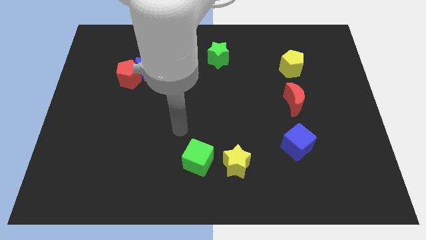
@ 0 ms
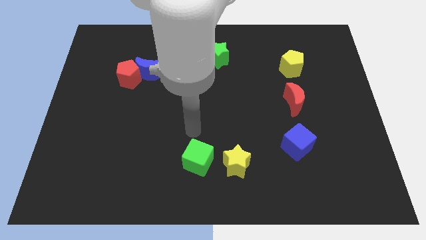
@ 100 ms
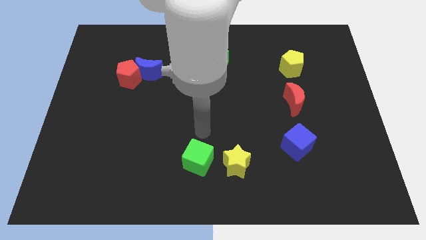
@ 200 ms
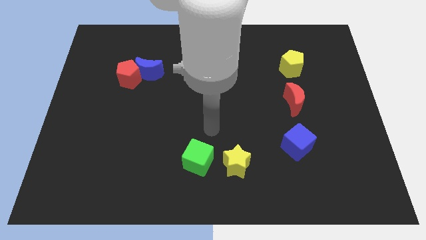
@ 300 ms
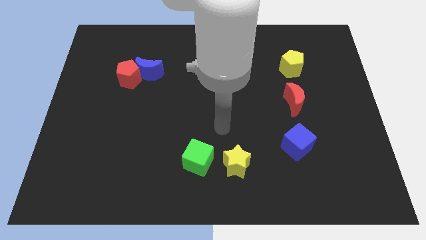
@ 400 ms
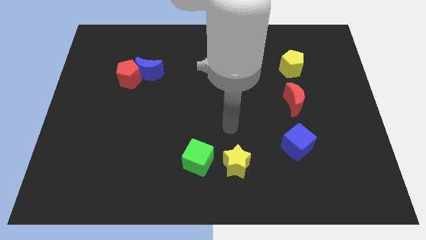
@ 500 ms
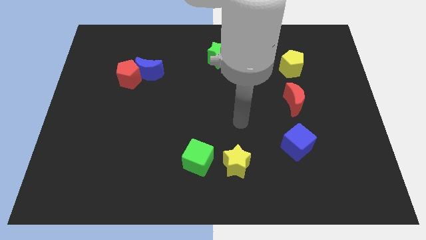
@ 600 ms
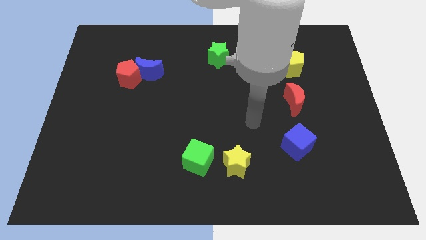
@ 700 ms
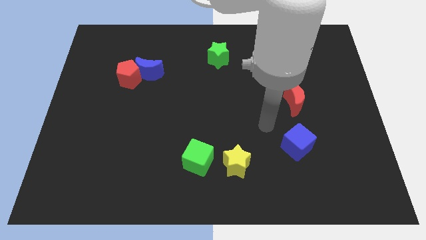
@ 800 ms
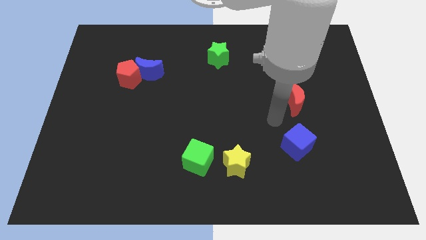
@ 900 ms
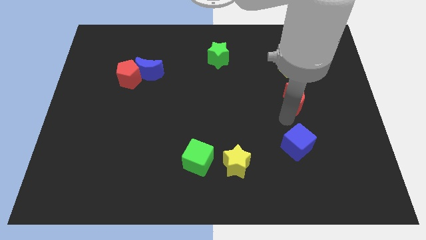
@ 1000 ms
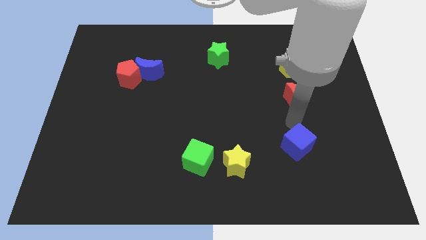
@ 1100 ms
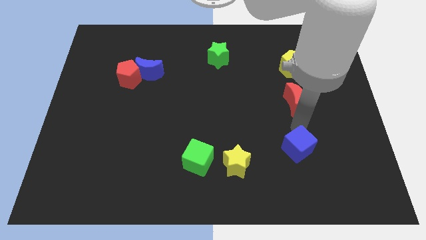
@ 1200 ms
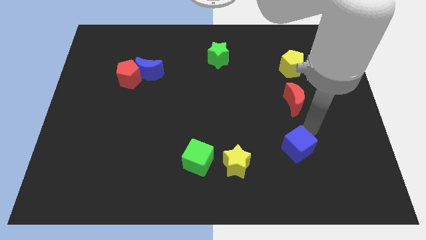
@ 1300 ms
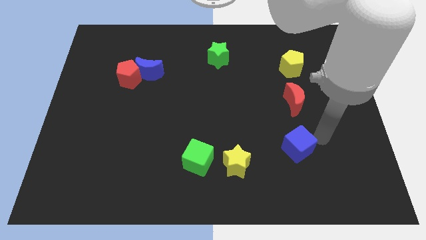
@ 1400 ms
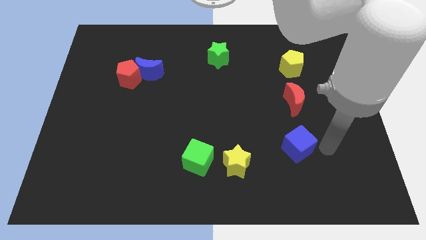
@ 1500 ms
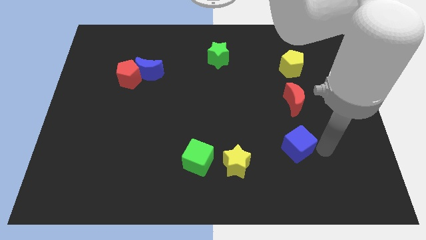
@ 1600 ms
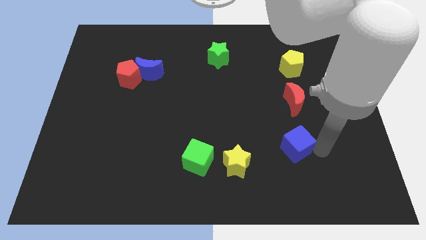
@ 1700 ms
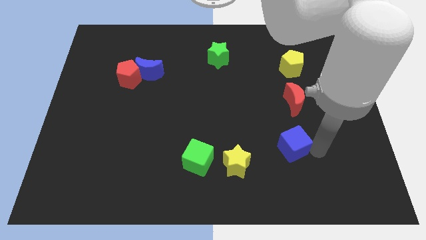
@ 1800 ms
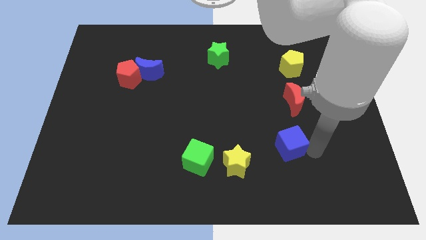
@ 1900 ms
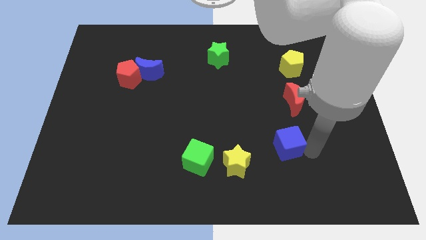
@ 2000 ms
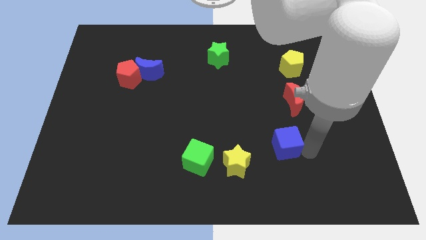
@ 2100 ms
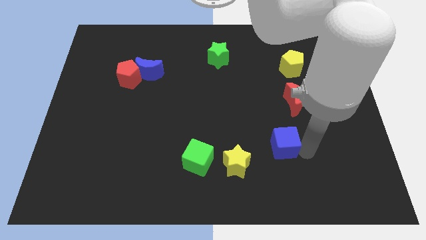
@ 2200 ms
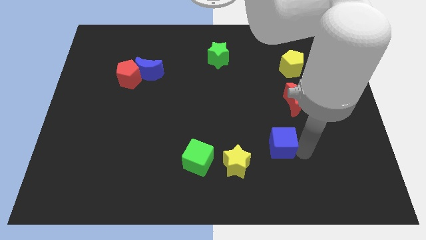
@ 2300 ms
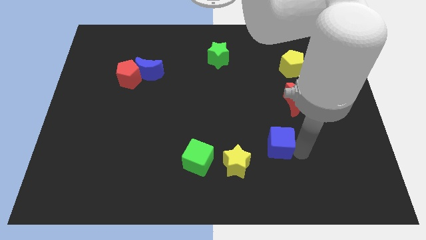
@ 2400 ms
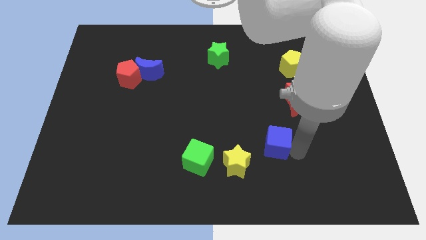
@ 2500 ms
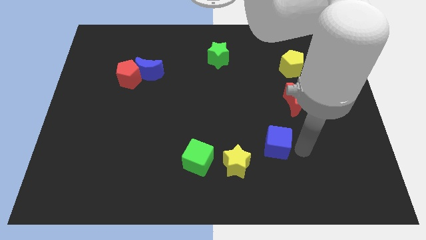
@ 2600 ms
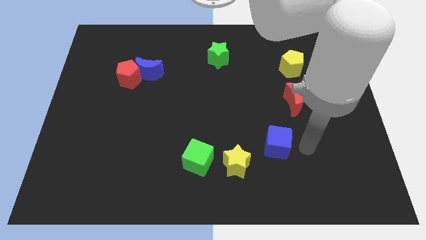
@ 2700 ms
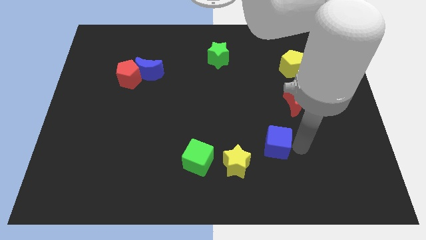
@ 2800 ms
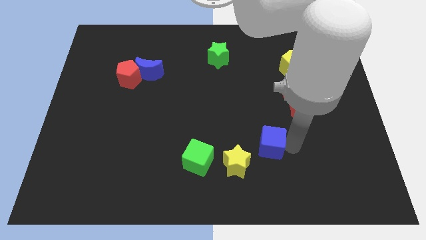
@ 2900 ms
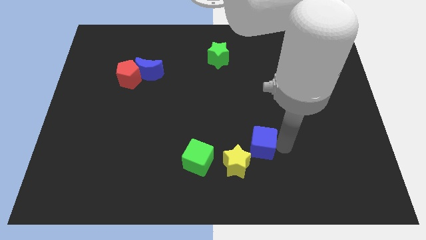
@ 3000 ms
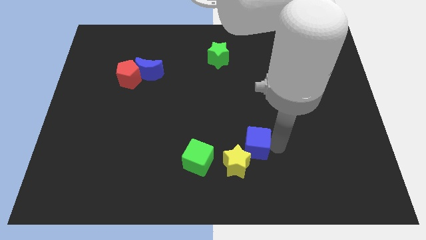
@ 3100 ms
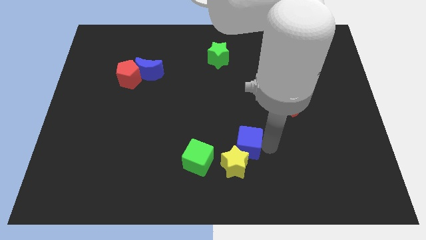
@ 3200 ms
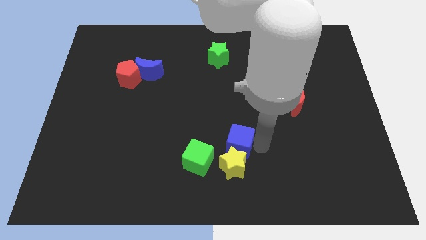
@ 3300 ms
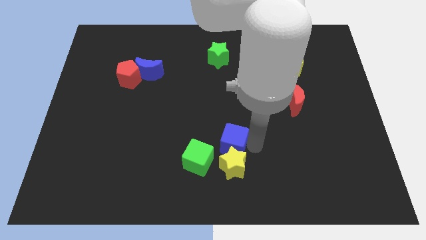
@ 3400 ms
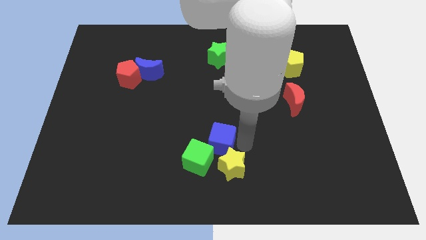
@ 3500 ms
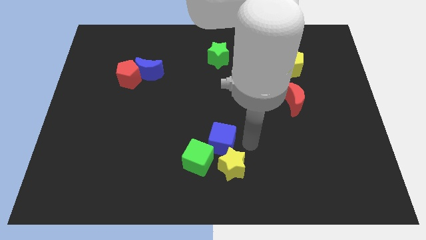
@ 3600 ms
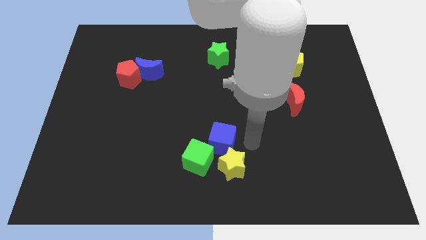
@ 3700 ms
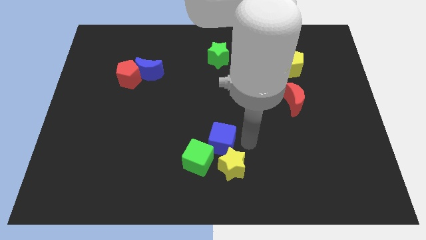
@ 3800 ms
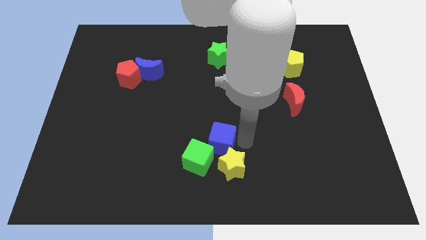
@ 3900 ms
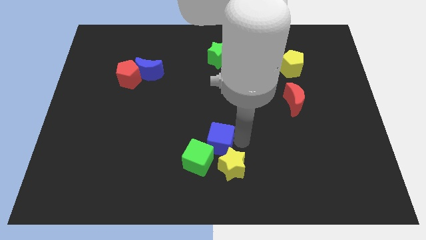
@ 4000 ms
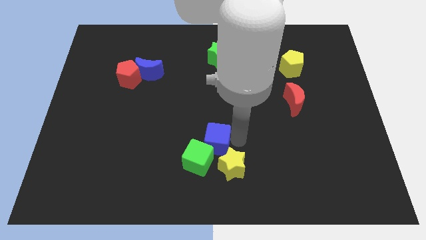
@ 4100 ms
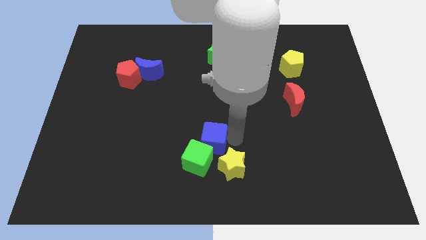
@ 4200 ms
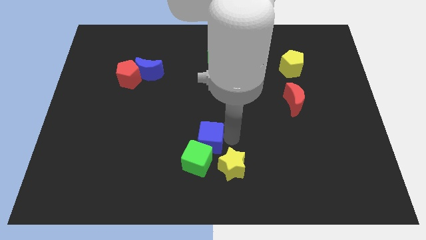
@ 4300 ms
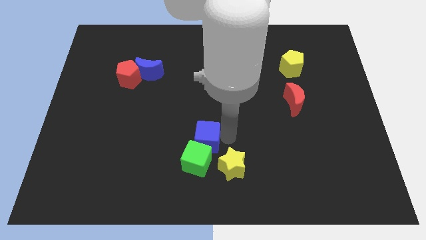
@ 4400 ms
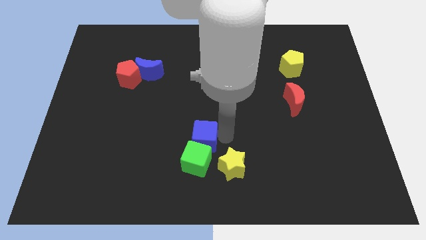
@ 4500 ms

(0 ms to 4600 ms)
move the blue cube left

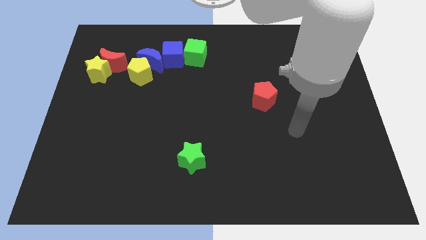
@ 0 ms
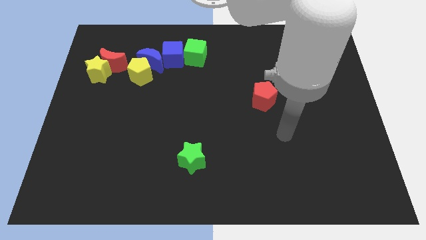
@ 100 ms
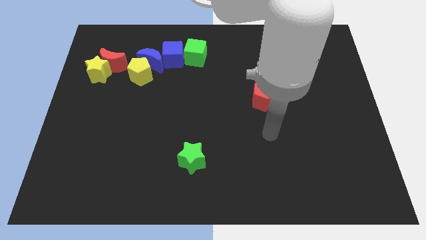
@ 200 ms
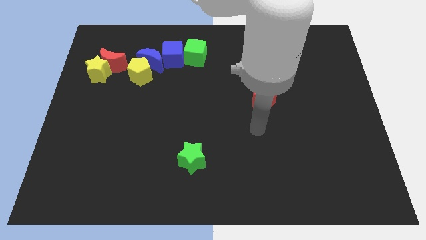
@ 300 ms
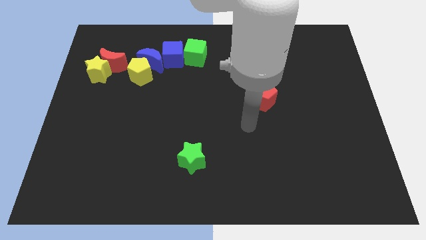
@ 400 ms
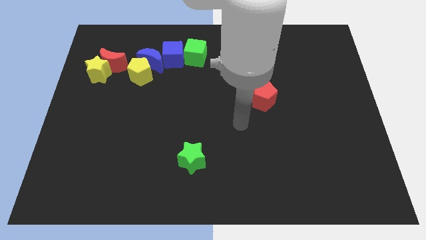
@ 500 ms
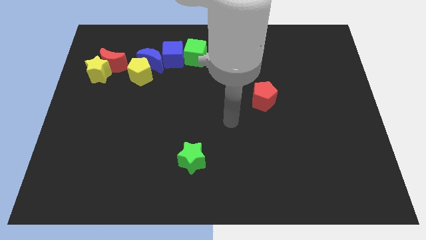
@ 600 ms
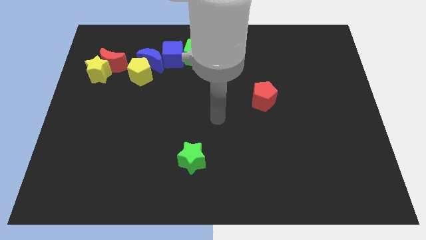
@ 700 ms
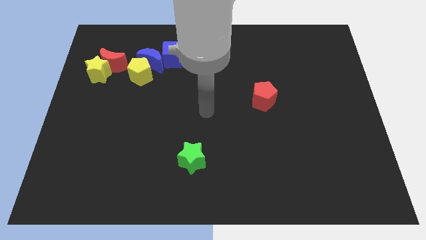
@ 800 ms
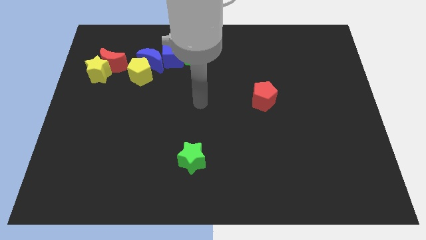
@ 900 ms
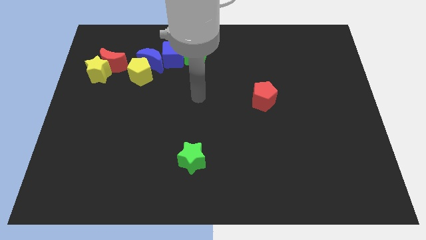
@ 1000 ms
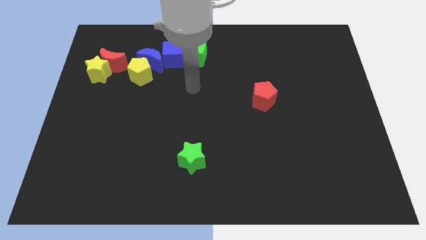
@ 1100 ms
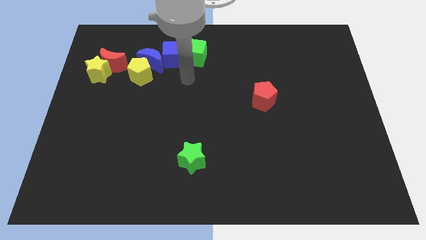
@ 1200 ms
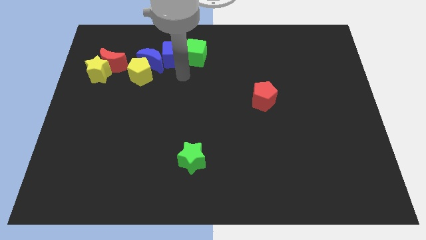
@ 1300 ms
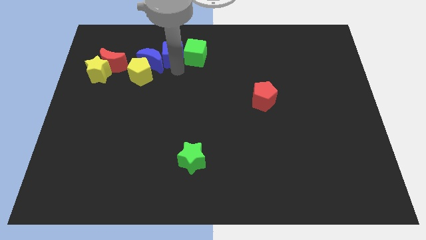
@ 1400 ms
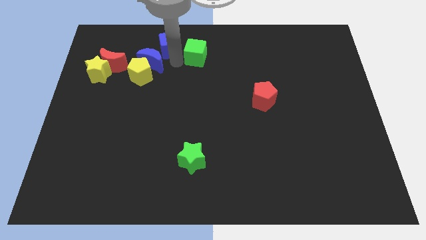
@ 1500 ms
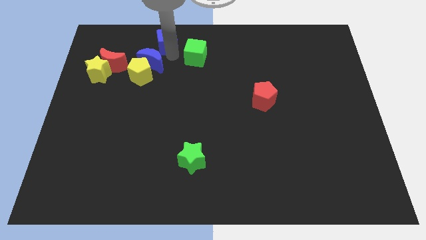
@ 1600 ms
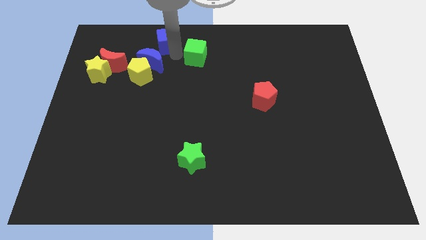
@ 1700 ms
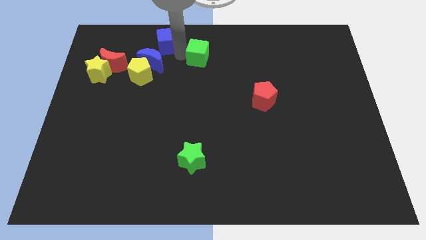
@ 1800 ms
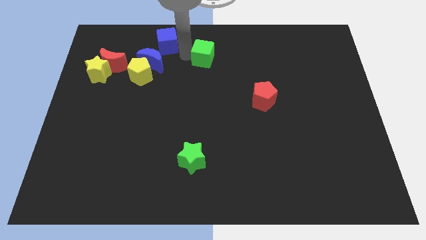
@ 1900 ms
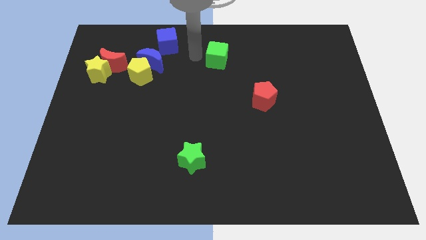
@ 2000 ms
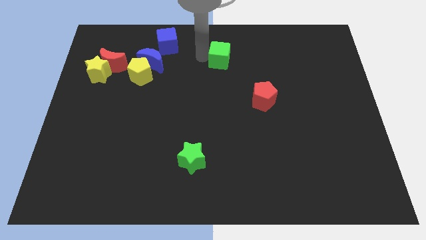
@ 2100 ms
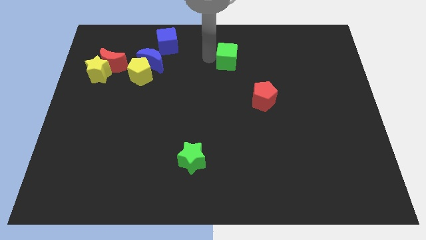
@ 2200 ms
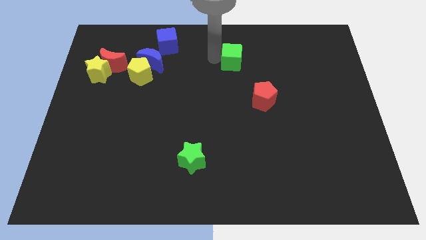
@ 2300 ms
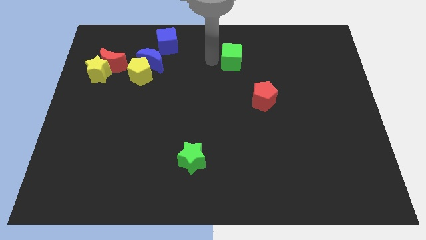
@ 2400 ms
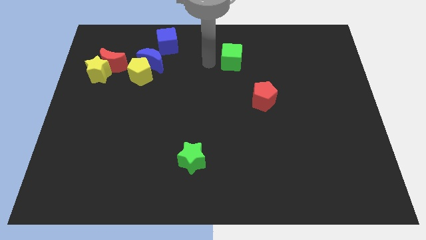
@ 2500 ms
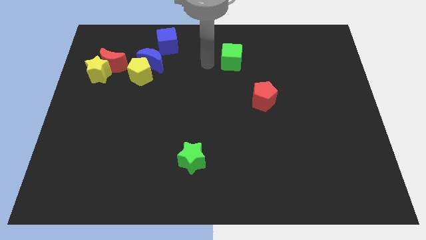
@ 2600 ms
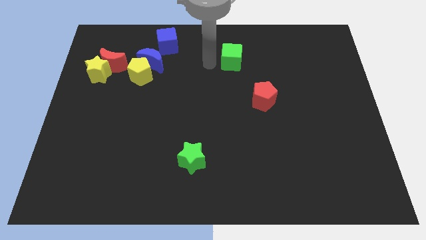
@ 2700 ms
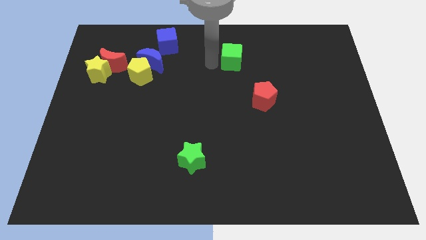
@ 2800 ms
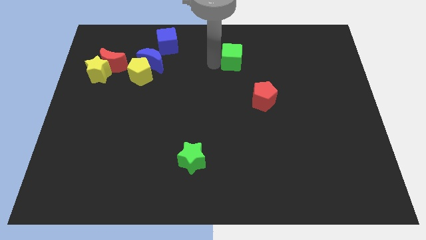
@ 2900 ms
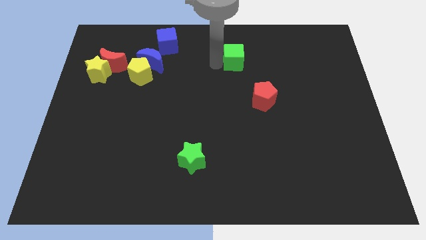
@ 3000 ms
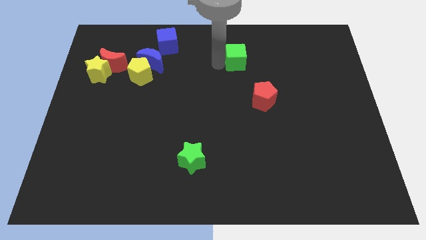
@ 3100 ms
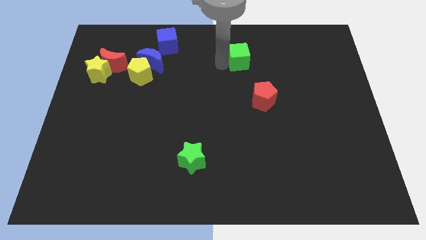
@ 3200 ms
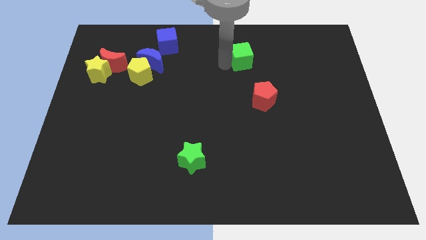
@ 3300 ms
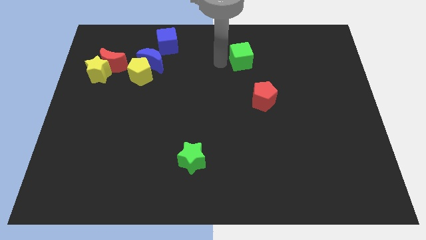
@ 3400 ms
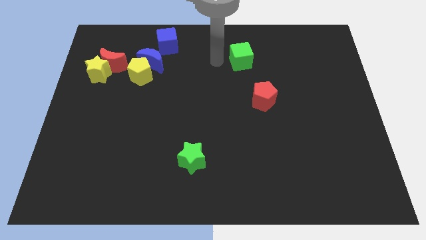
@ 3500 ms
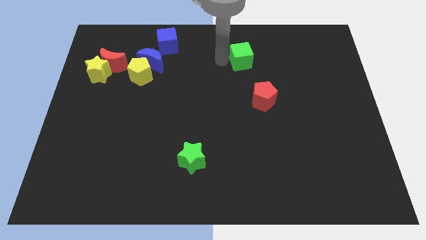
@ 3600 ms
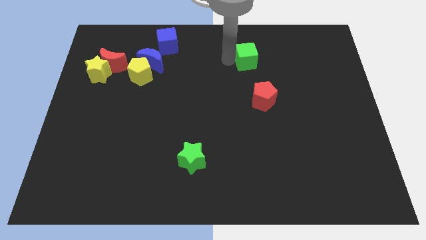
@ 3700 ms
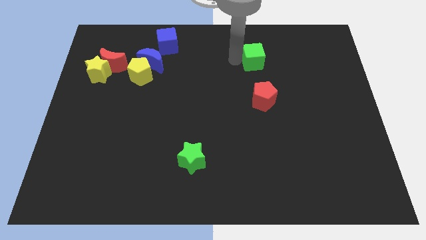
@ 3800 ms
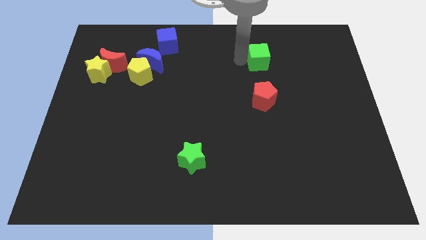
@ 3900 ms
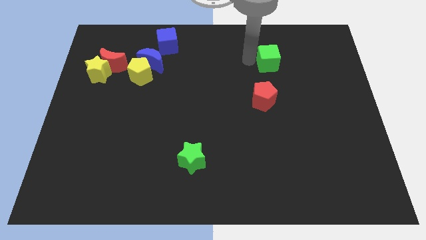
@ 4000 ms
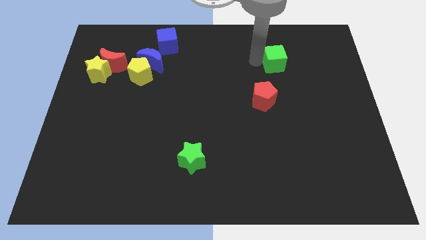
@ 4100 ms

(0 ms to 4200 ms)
push the green cube to the right
